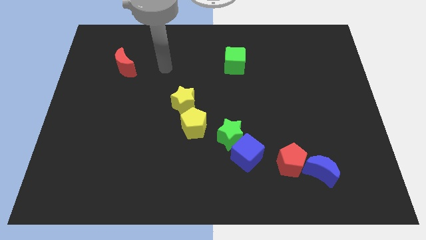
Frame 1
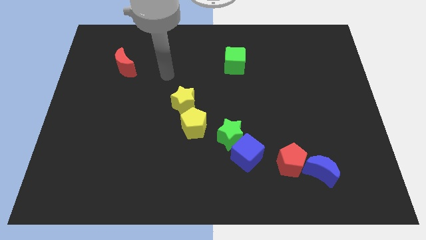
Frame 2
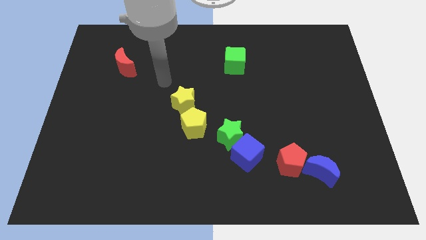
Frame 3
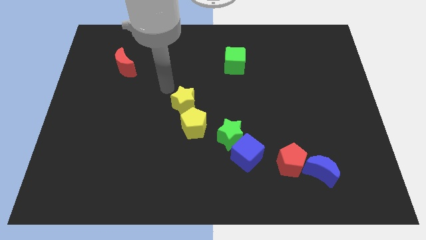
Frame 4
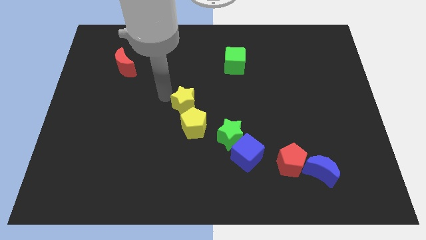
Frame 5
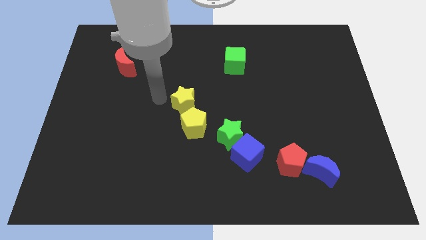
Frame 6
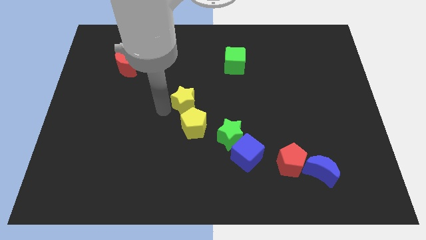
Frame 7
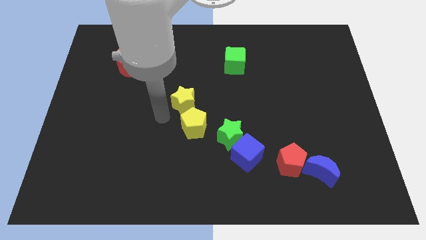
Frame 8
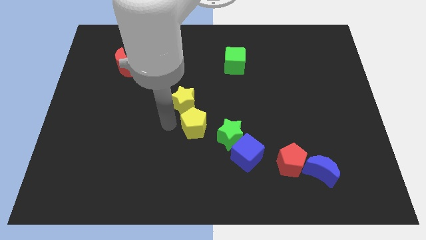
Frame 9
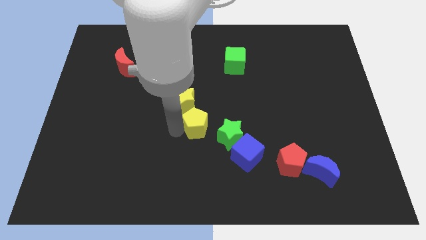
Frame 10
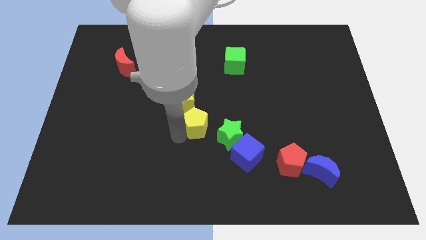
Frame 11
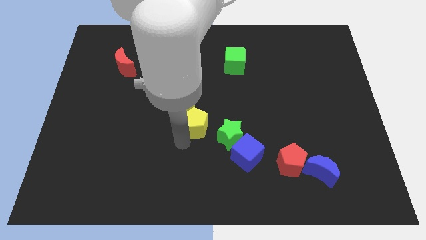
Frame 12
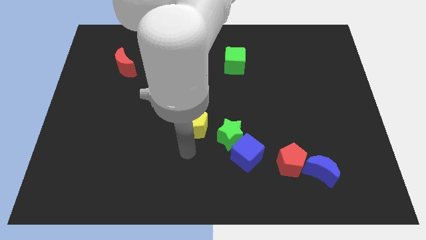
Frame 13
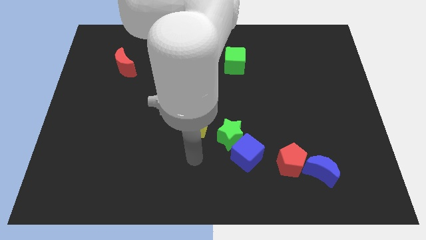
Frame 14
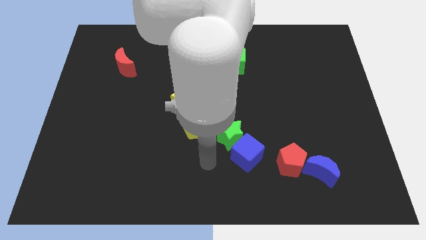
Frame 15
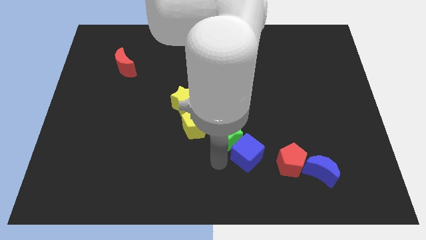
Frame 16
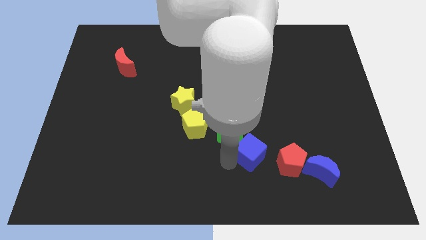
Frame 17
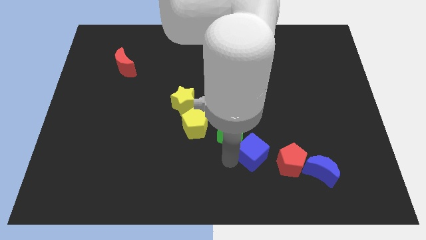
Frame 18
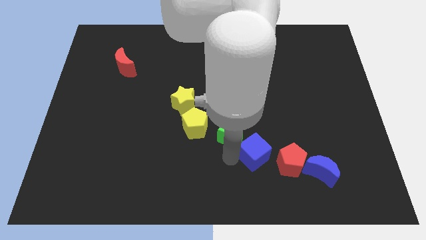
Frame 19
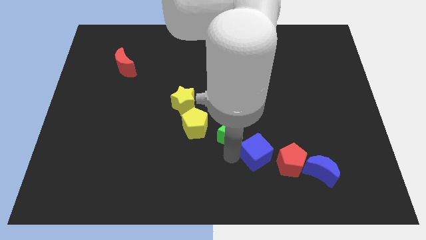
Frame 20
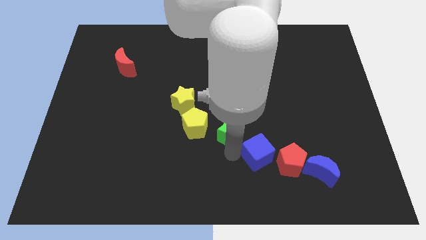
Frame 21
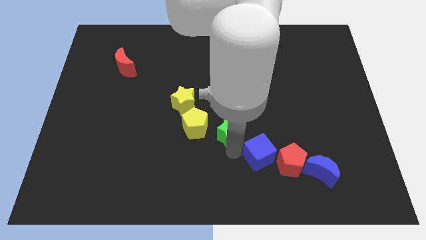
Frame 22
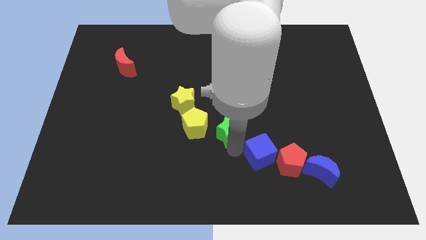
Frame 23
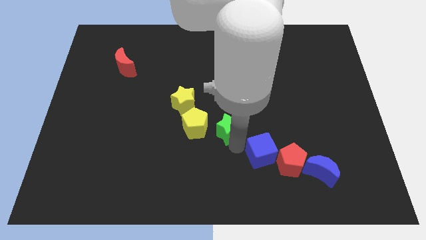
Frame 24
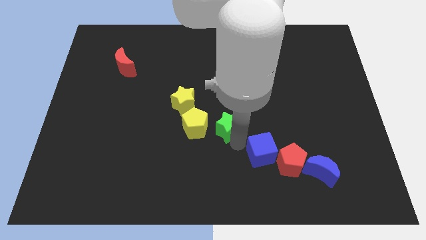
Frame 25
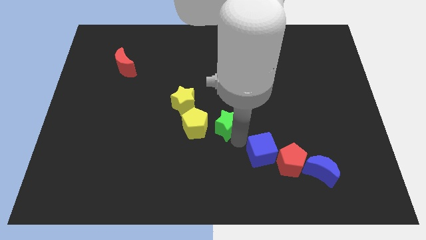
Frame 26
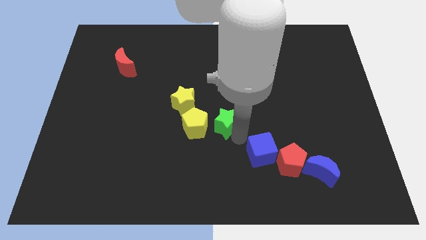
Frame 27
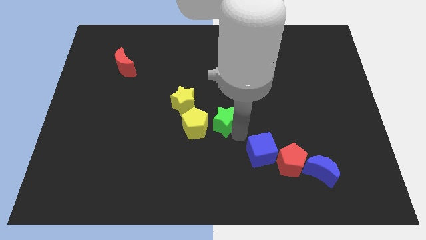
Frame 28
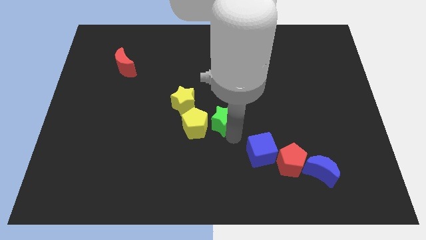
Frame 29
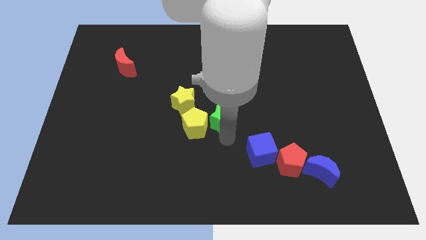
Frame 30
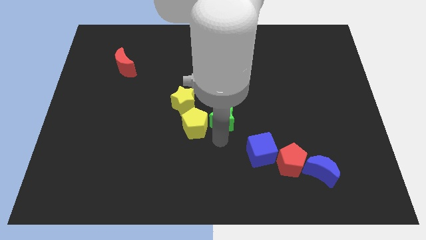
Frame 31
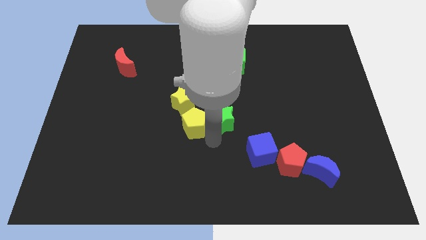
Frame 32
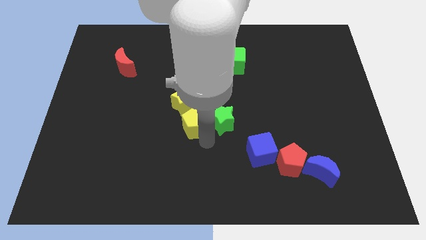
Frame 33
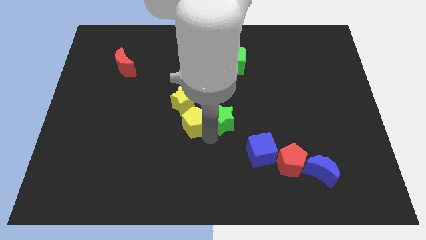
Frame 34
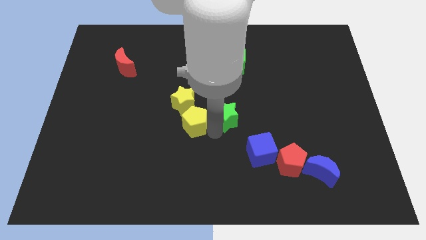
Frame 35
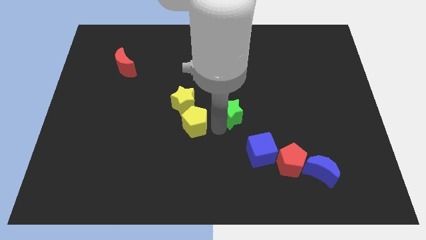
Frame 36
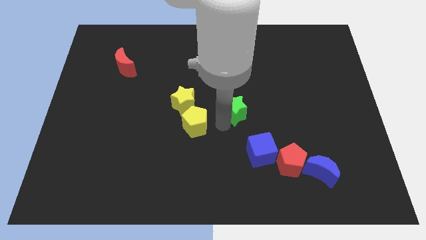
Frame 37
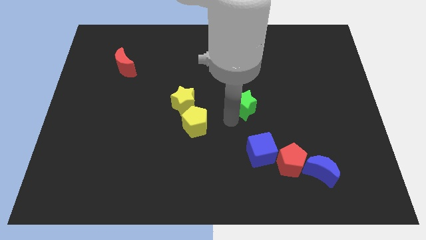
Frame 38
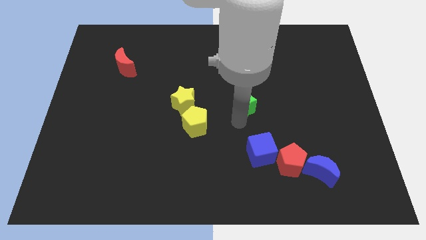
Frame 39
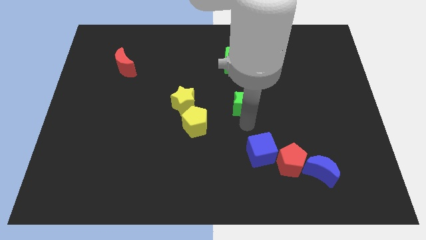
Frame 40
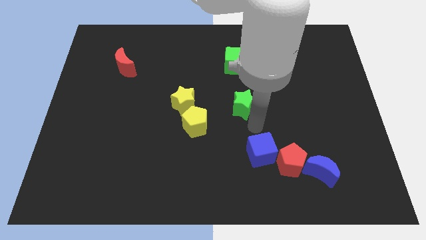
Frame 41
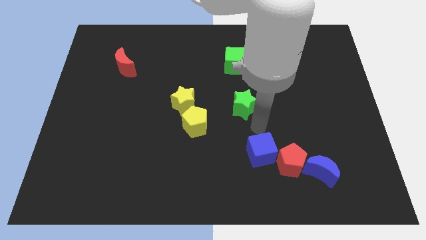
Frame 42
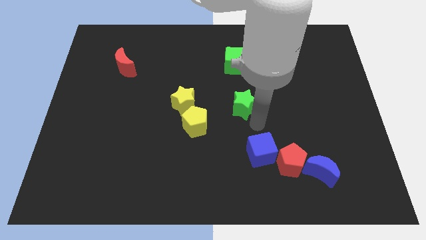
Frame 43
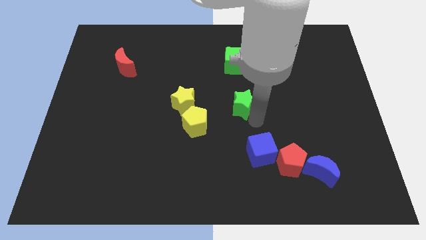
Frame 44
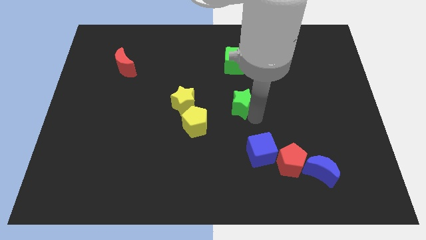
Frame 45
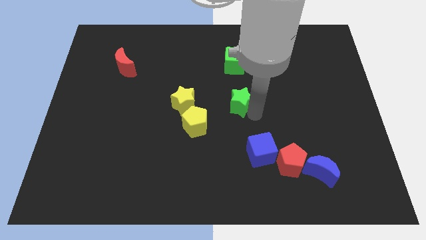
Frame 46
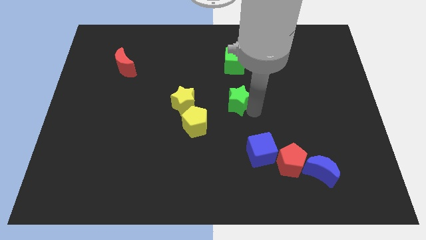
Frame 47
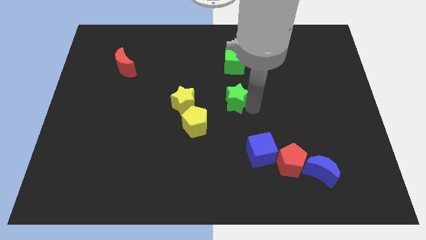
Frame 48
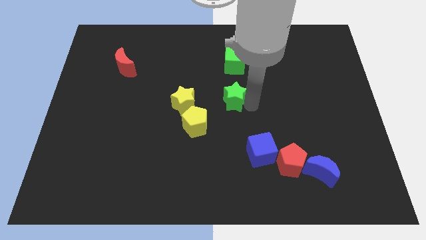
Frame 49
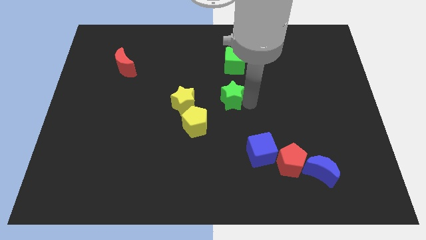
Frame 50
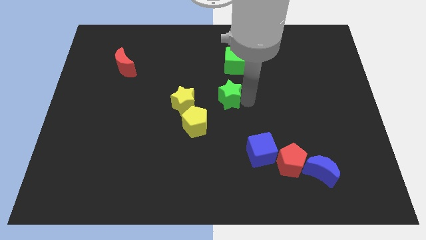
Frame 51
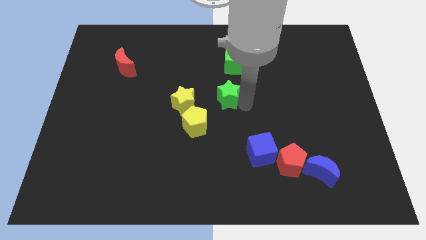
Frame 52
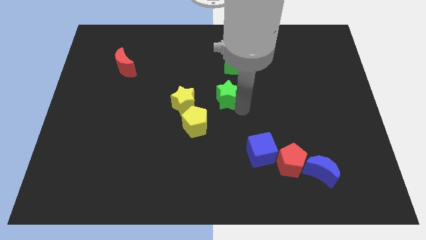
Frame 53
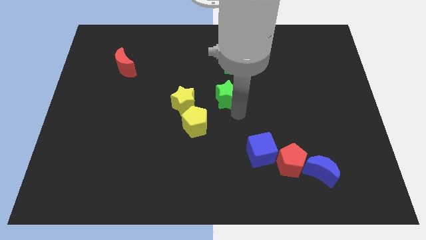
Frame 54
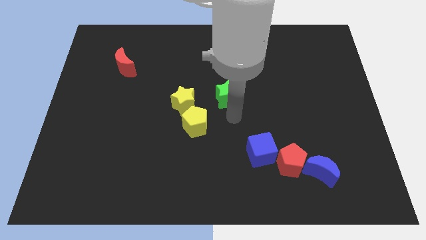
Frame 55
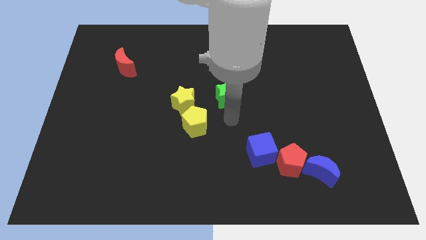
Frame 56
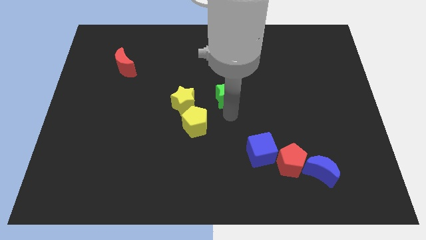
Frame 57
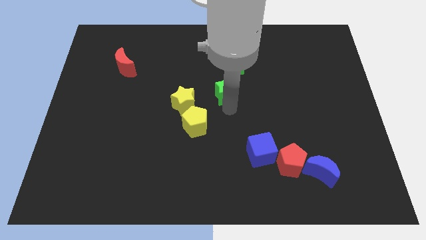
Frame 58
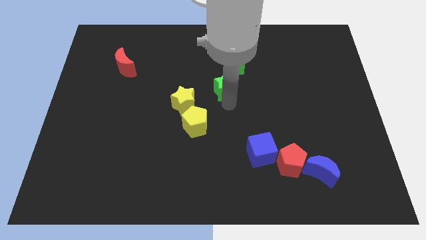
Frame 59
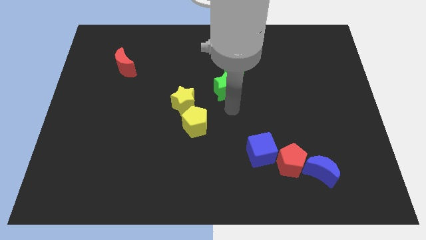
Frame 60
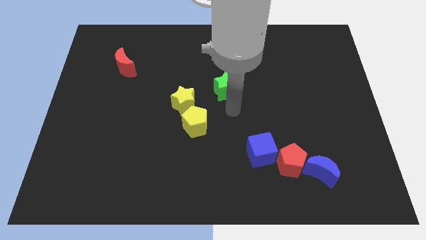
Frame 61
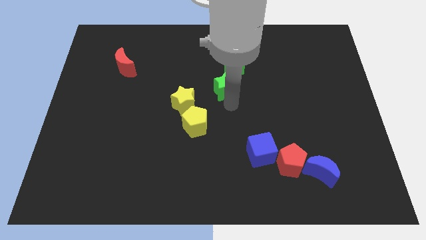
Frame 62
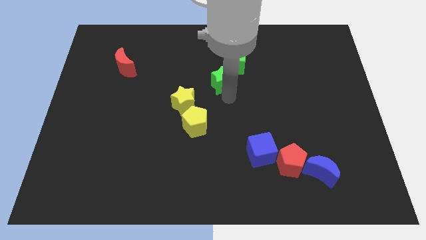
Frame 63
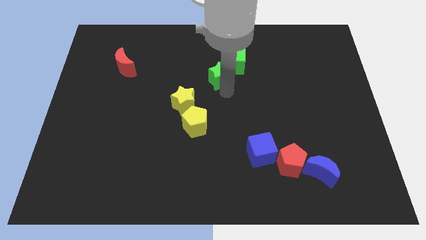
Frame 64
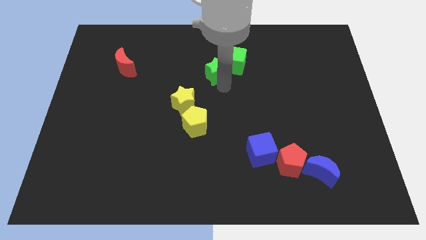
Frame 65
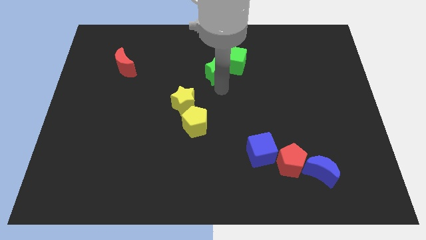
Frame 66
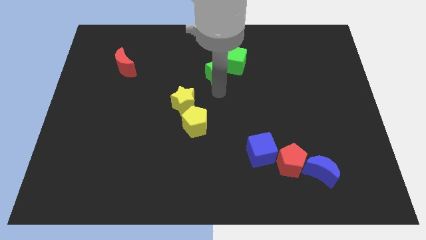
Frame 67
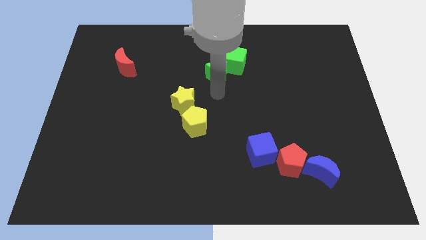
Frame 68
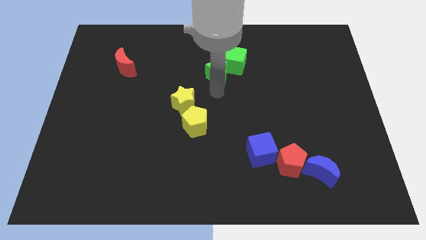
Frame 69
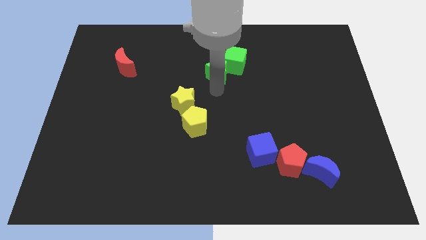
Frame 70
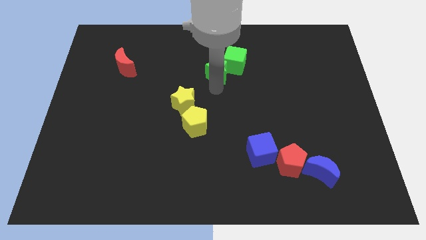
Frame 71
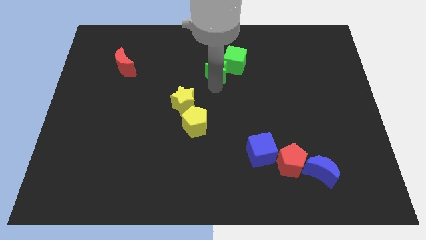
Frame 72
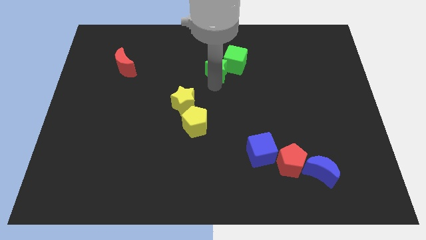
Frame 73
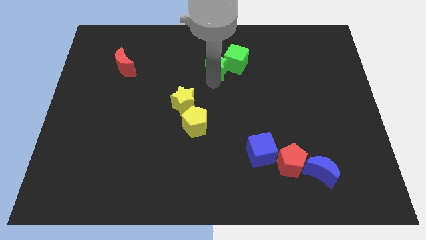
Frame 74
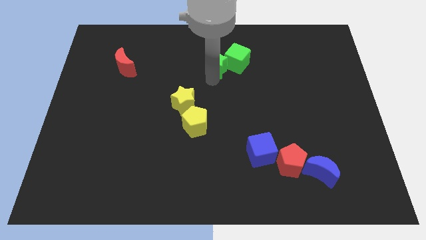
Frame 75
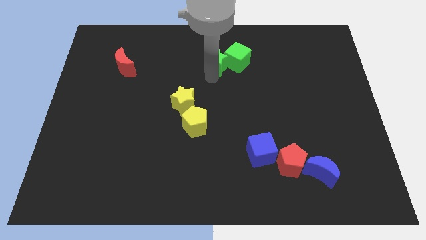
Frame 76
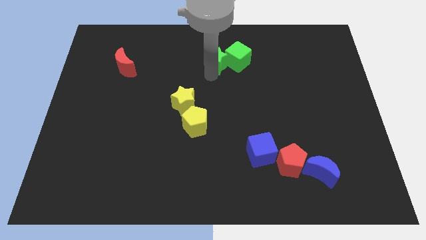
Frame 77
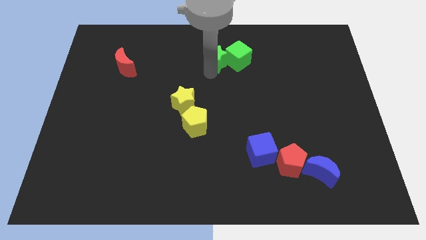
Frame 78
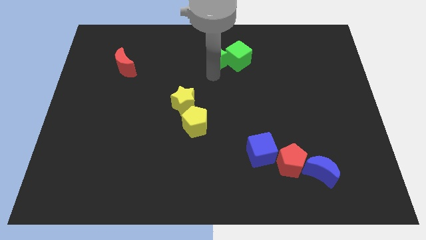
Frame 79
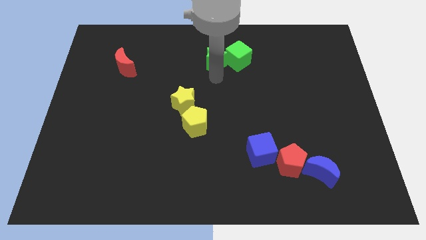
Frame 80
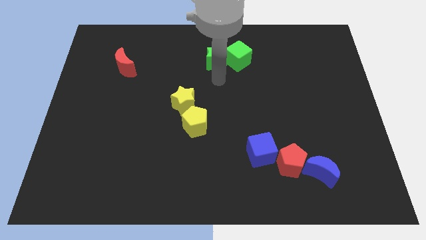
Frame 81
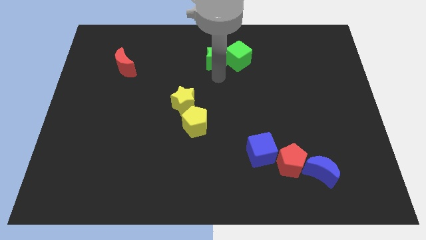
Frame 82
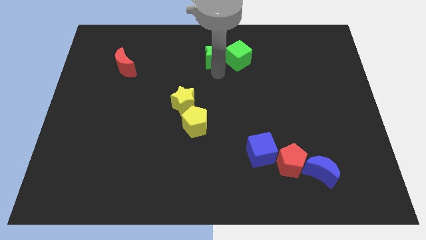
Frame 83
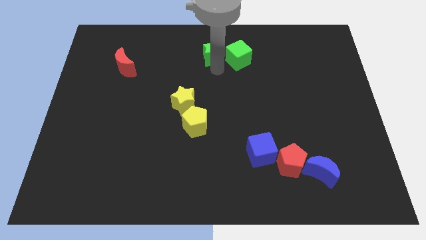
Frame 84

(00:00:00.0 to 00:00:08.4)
put the green star to the top
